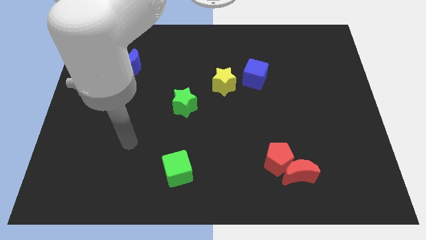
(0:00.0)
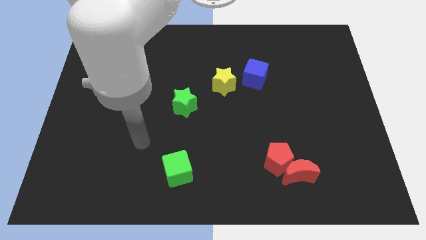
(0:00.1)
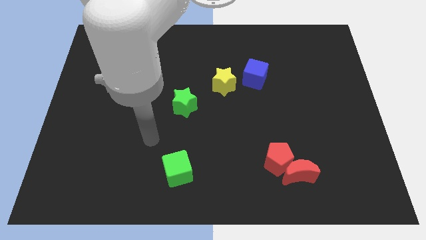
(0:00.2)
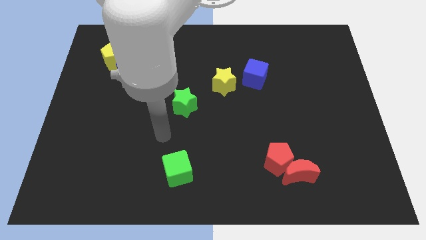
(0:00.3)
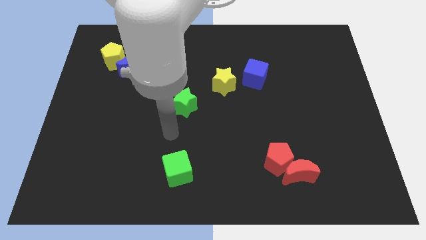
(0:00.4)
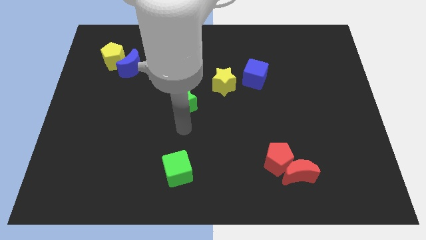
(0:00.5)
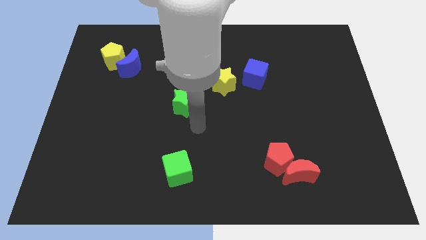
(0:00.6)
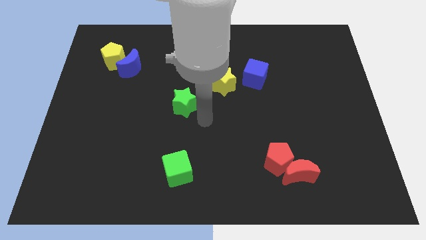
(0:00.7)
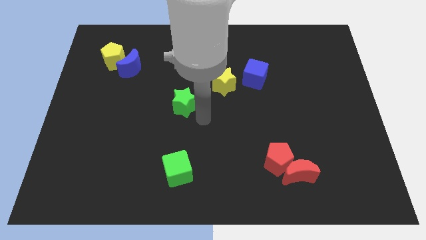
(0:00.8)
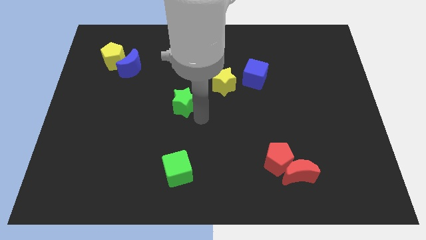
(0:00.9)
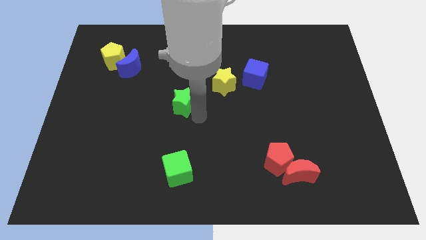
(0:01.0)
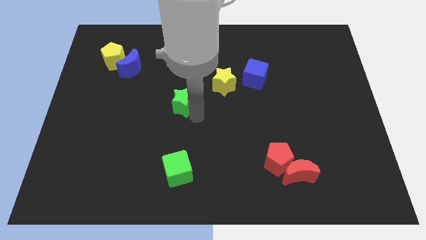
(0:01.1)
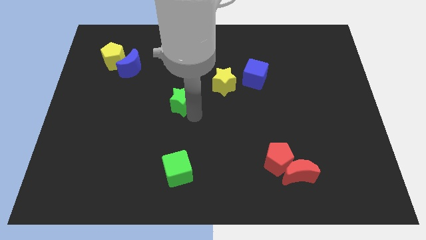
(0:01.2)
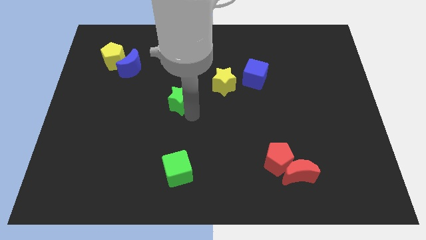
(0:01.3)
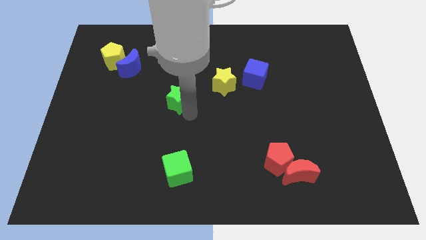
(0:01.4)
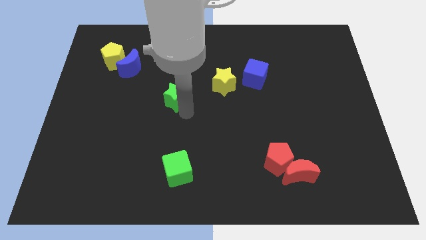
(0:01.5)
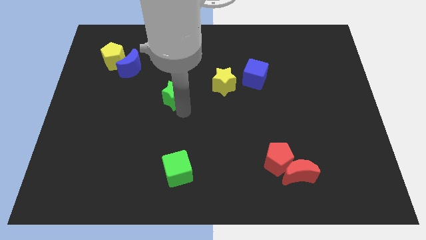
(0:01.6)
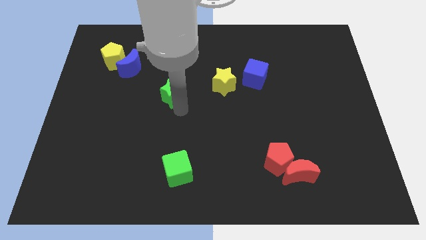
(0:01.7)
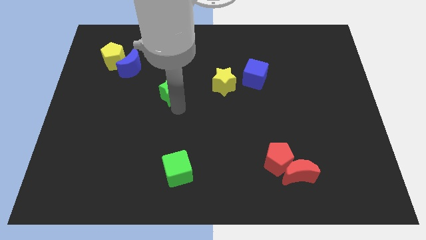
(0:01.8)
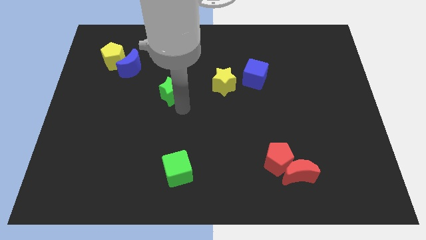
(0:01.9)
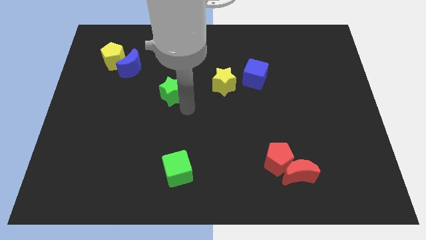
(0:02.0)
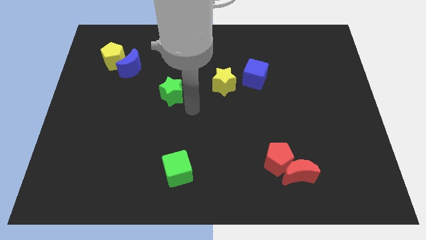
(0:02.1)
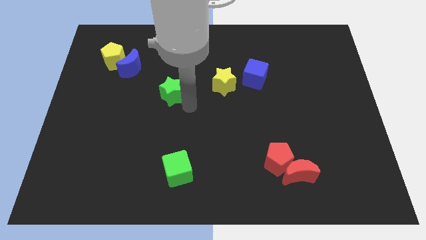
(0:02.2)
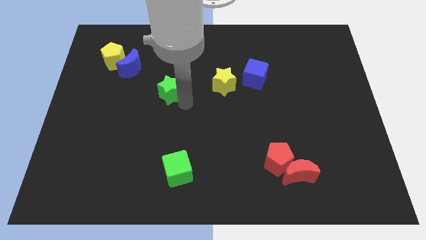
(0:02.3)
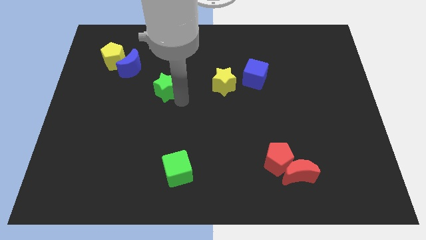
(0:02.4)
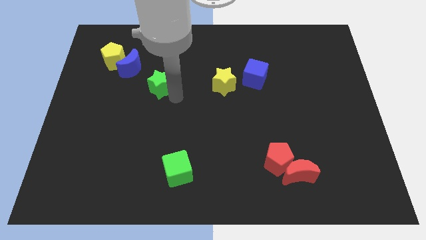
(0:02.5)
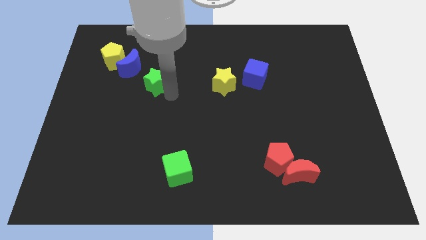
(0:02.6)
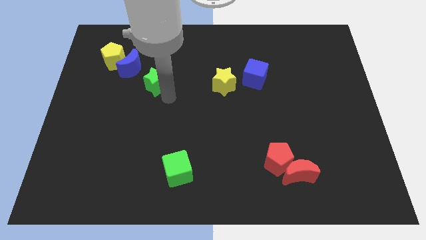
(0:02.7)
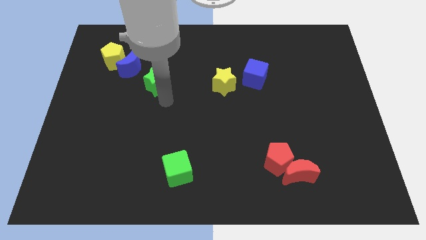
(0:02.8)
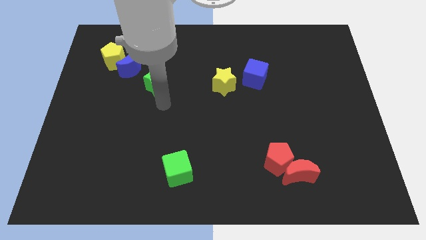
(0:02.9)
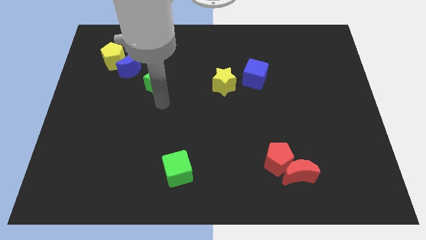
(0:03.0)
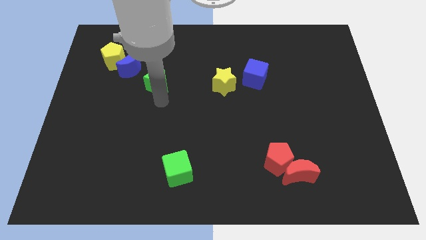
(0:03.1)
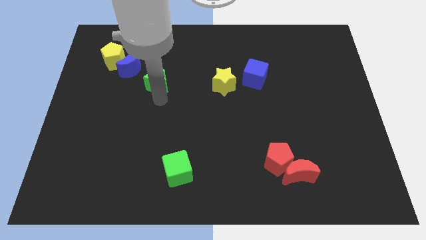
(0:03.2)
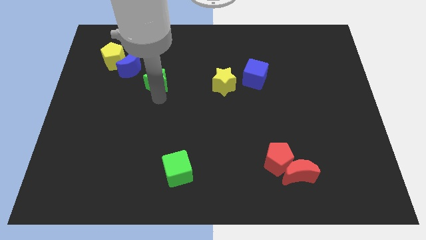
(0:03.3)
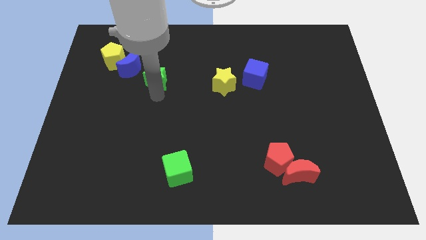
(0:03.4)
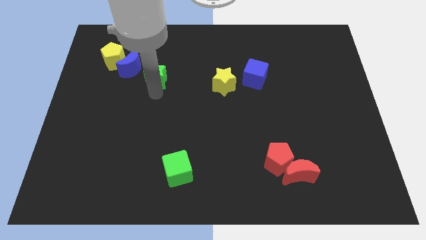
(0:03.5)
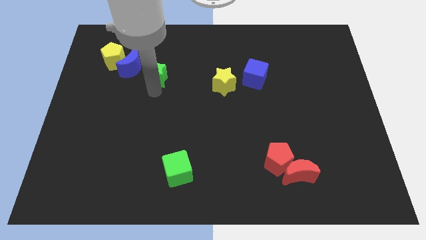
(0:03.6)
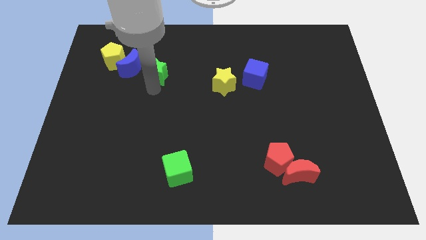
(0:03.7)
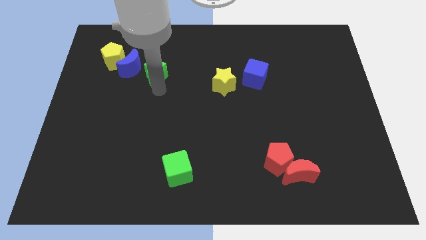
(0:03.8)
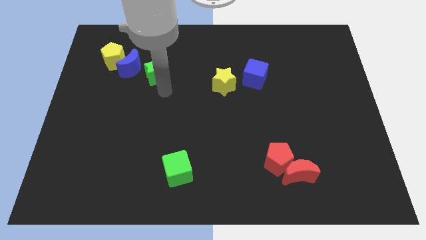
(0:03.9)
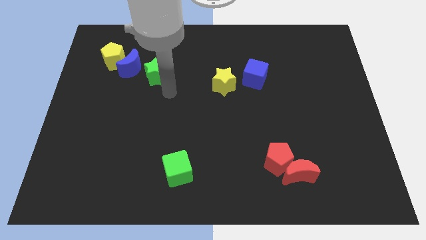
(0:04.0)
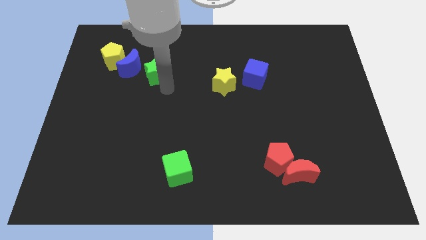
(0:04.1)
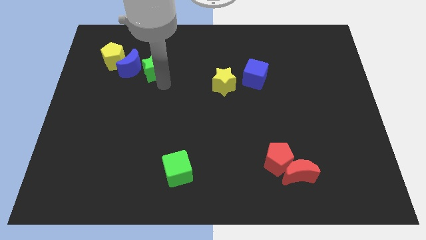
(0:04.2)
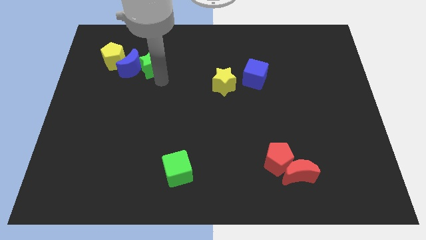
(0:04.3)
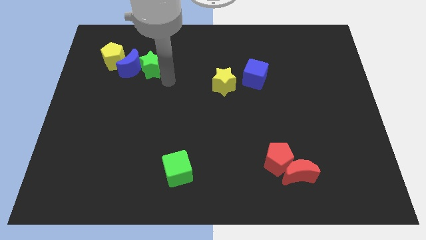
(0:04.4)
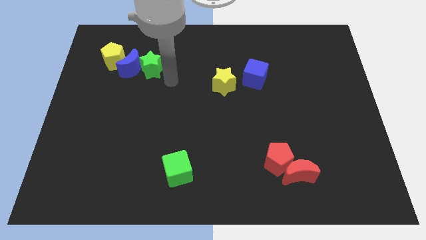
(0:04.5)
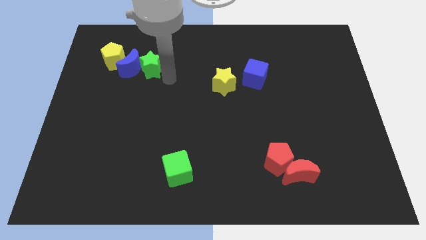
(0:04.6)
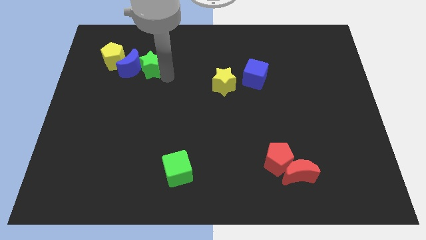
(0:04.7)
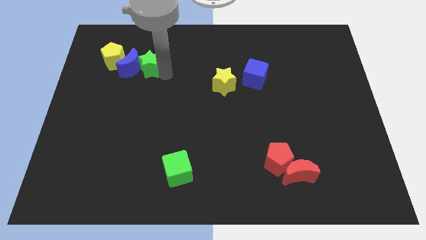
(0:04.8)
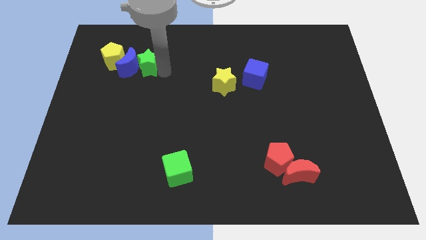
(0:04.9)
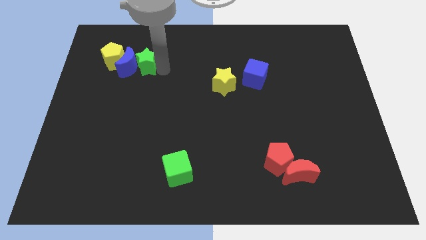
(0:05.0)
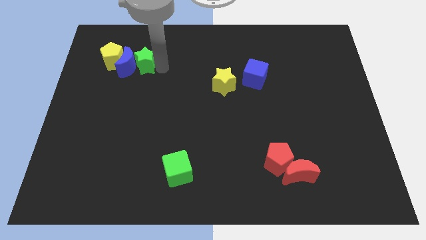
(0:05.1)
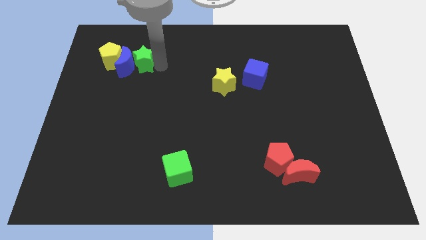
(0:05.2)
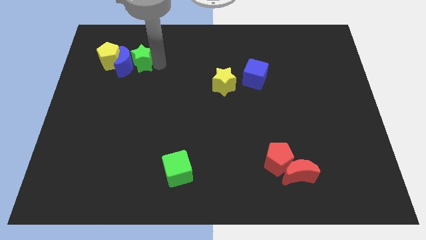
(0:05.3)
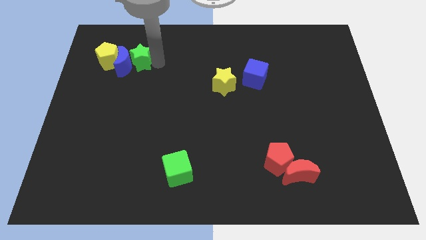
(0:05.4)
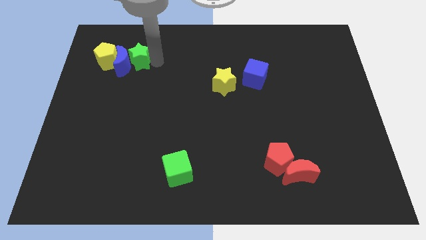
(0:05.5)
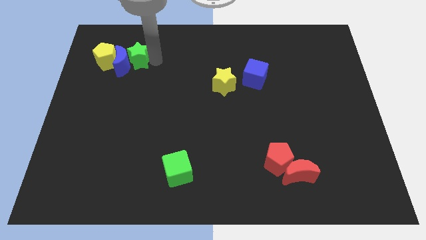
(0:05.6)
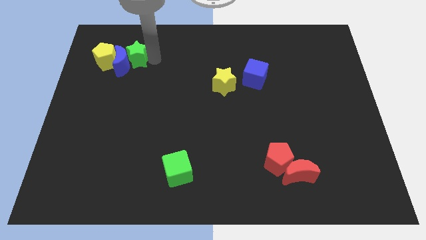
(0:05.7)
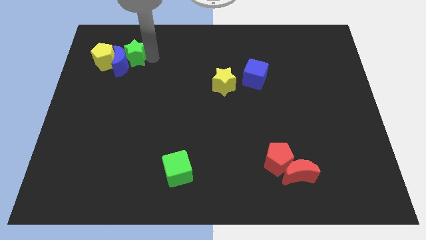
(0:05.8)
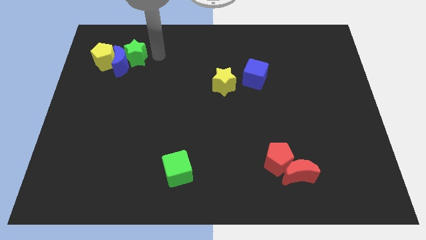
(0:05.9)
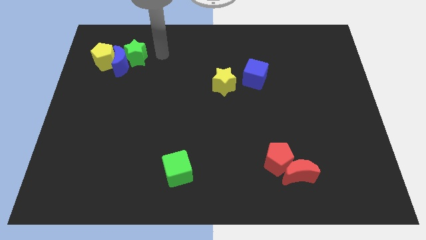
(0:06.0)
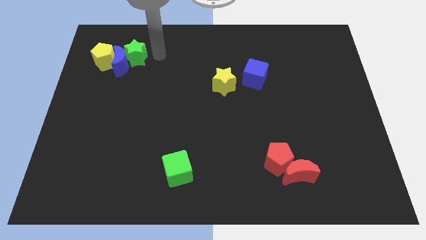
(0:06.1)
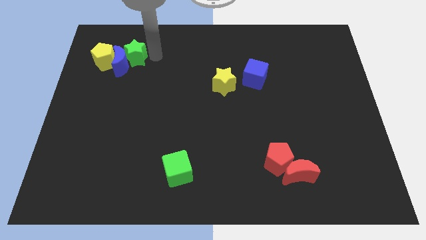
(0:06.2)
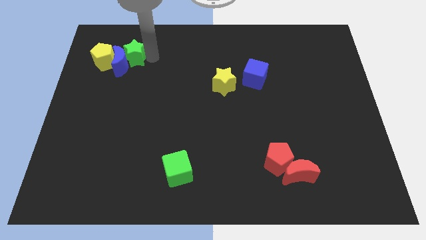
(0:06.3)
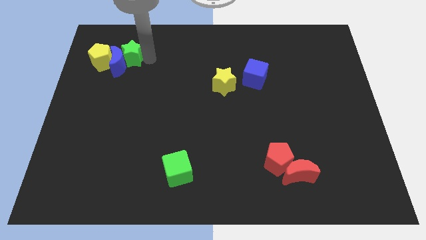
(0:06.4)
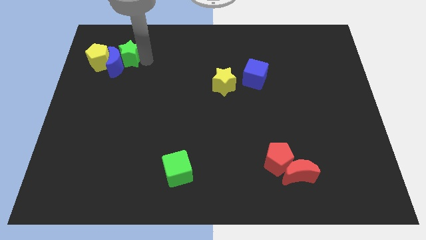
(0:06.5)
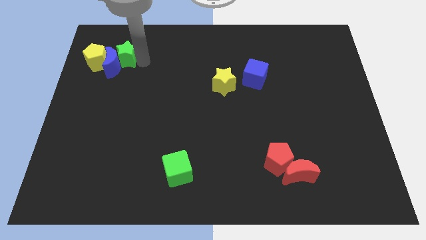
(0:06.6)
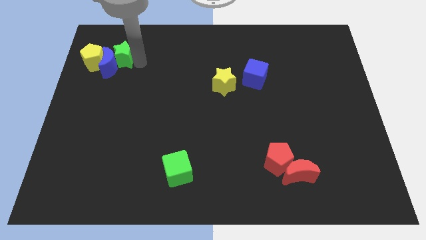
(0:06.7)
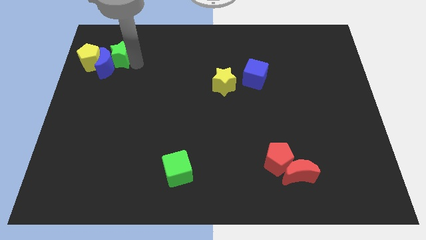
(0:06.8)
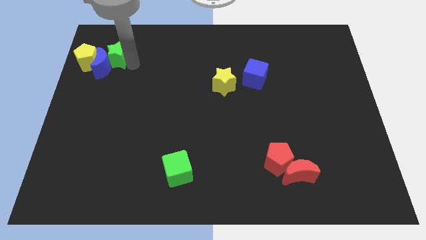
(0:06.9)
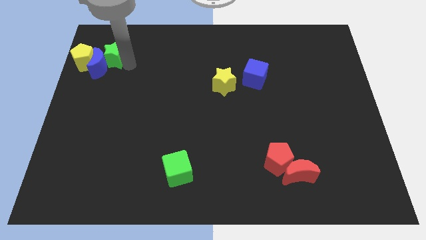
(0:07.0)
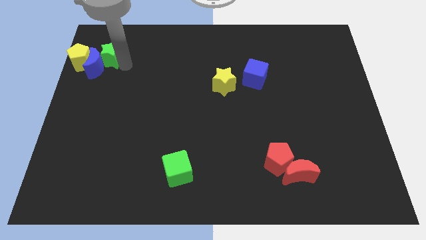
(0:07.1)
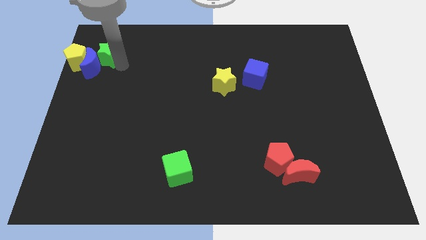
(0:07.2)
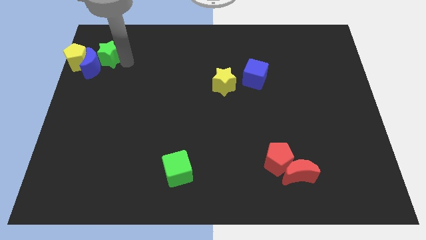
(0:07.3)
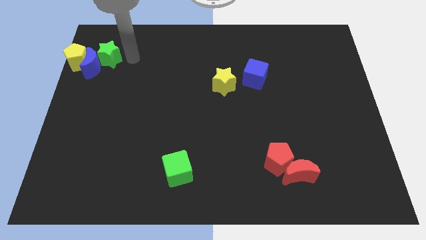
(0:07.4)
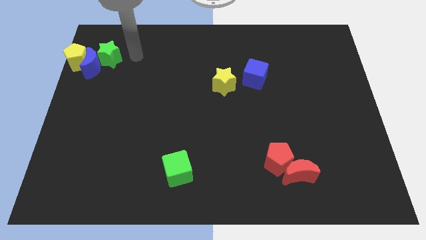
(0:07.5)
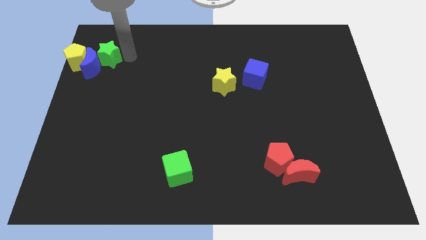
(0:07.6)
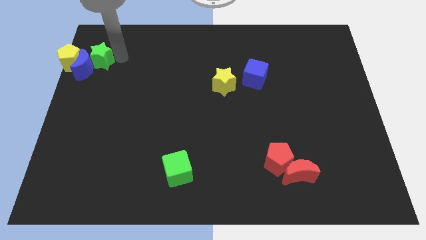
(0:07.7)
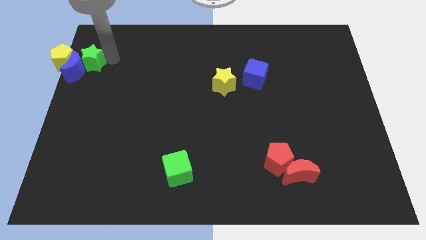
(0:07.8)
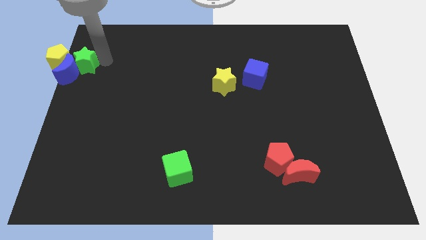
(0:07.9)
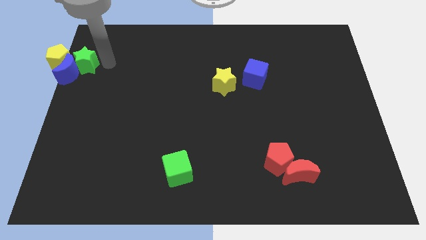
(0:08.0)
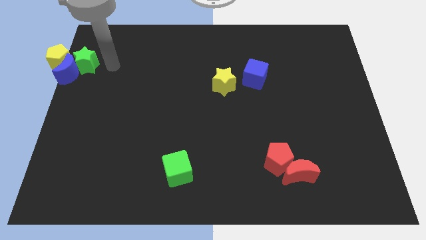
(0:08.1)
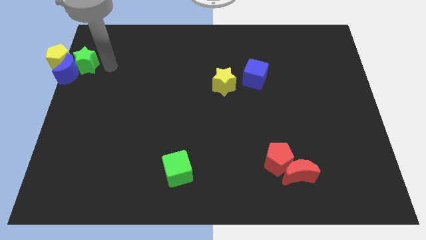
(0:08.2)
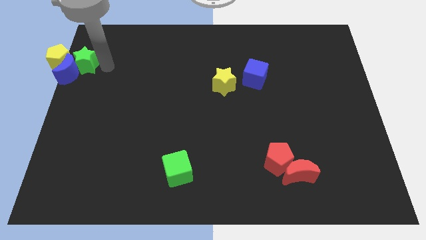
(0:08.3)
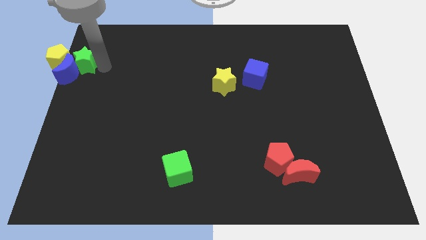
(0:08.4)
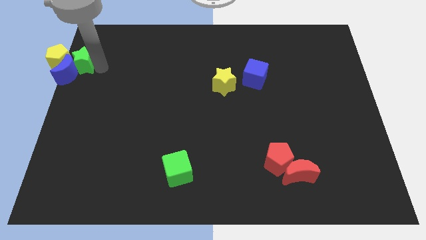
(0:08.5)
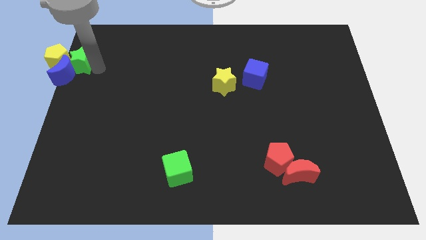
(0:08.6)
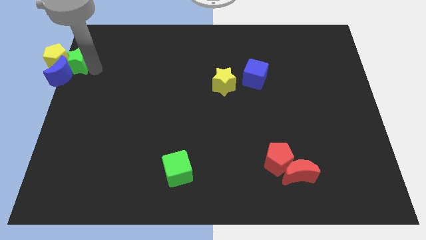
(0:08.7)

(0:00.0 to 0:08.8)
slide the green star towards the yellow pentagon
